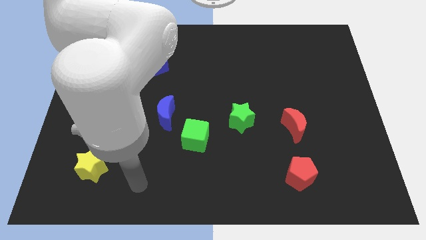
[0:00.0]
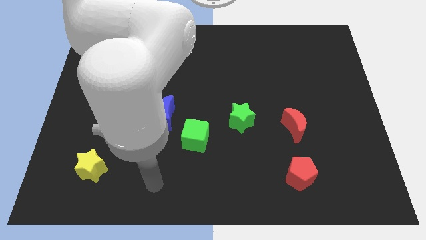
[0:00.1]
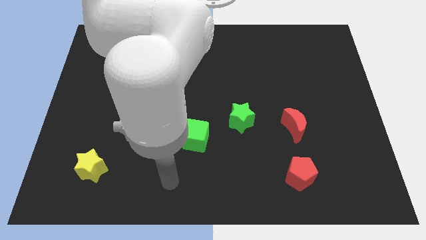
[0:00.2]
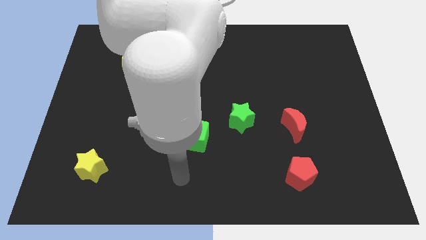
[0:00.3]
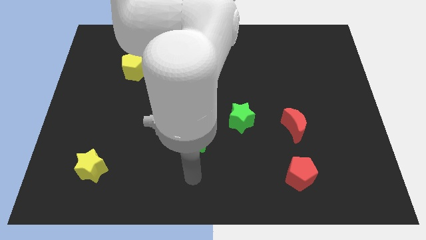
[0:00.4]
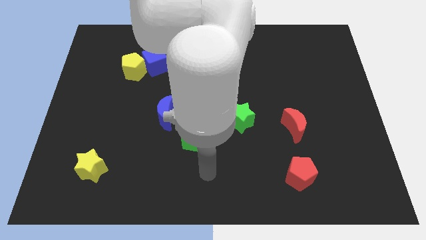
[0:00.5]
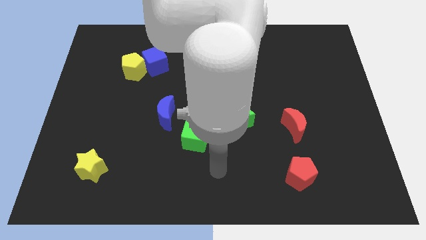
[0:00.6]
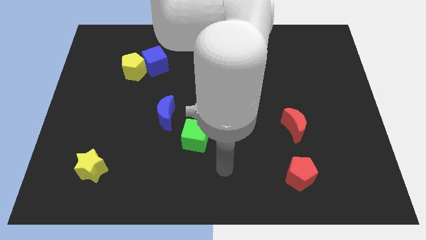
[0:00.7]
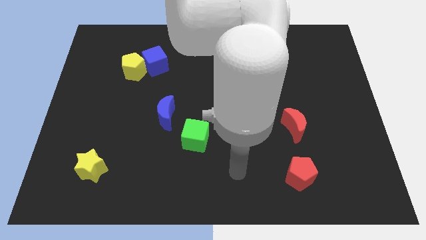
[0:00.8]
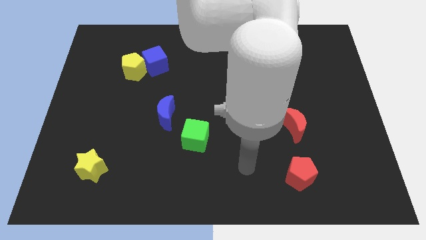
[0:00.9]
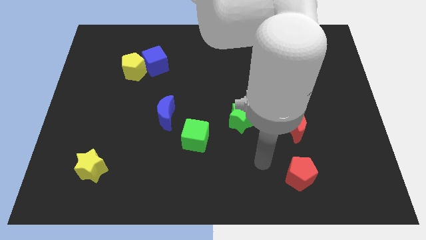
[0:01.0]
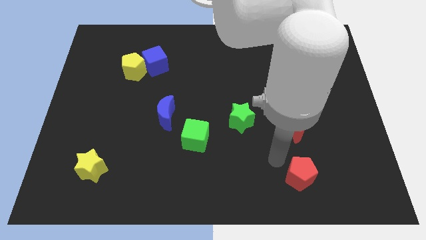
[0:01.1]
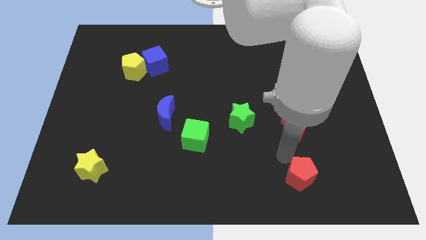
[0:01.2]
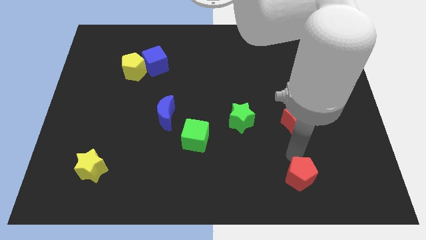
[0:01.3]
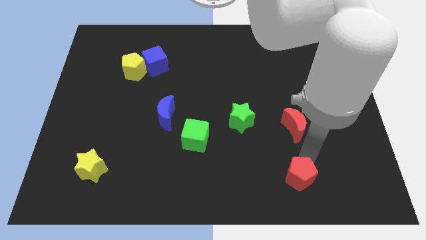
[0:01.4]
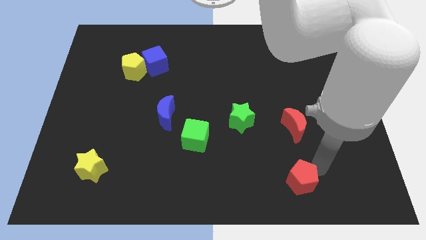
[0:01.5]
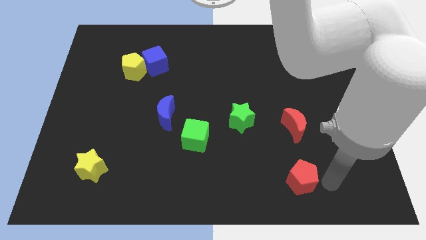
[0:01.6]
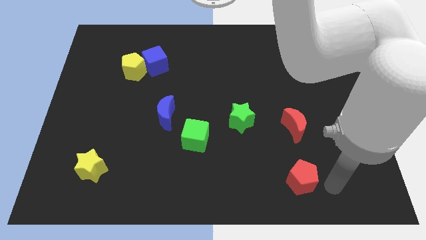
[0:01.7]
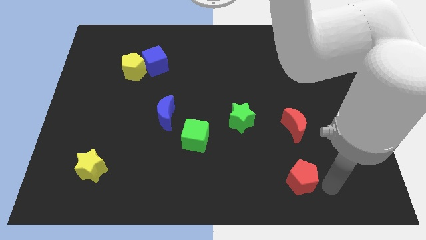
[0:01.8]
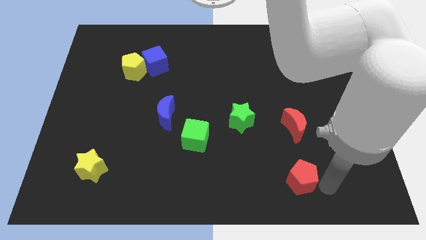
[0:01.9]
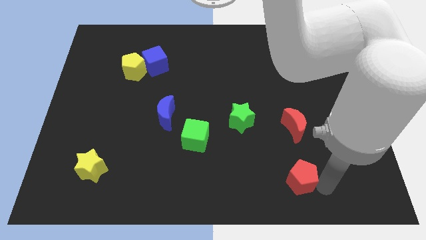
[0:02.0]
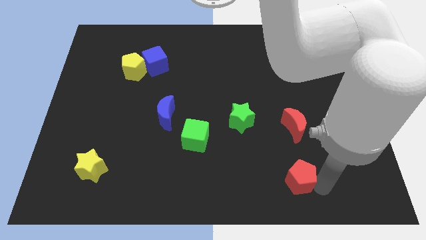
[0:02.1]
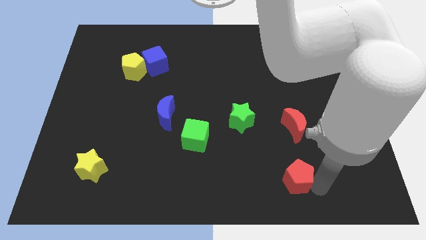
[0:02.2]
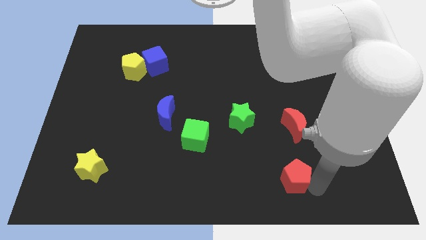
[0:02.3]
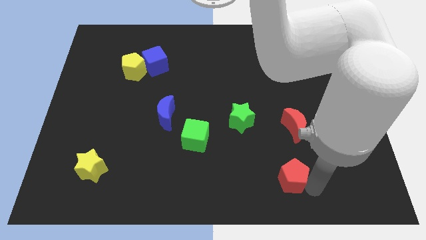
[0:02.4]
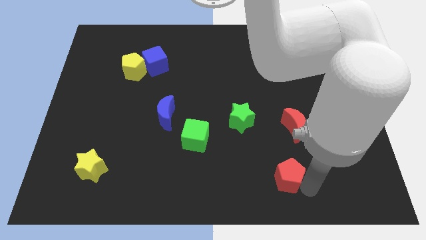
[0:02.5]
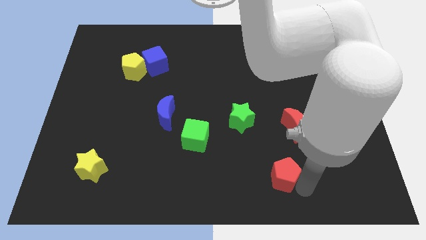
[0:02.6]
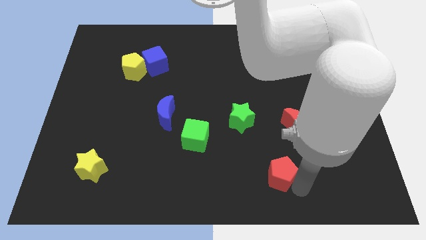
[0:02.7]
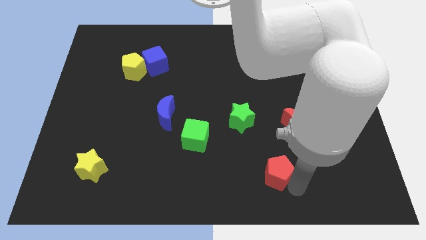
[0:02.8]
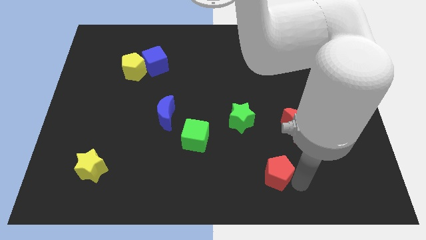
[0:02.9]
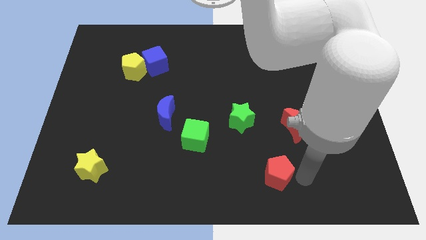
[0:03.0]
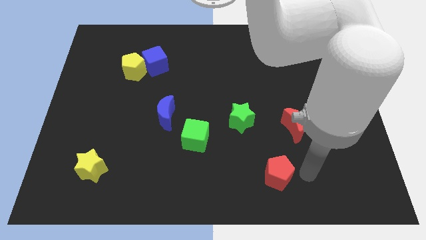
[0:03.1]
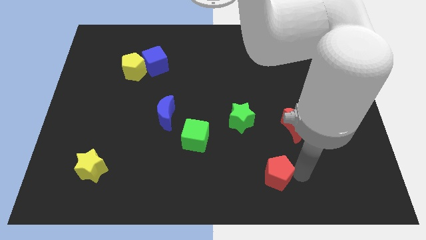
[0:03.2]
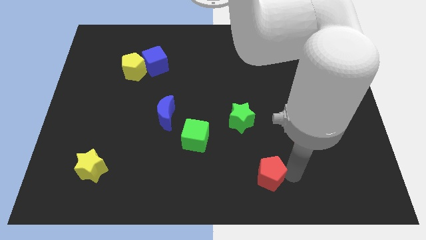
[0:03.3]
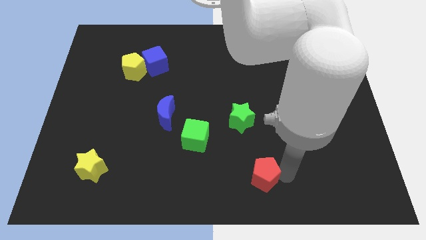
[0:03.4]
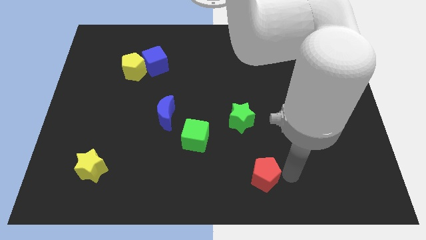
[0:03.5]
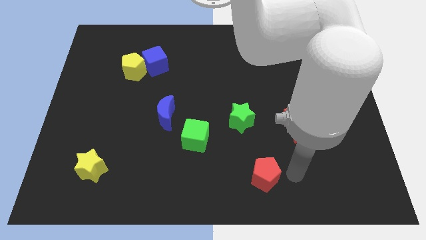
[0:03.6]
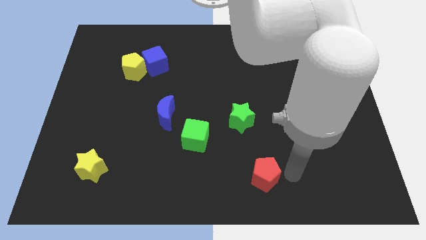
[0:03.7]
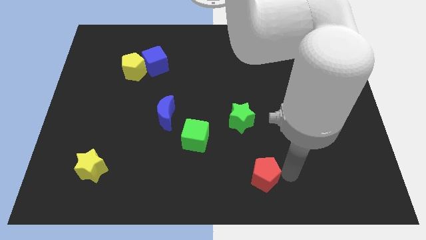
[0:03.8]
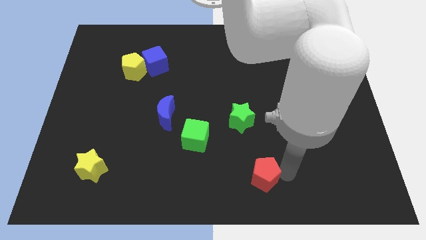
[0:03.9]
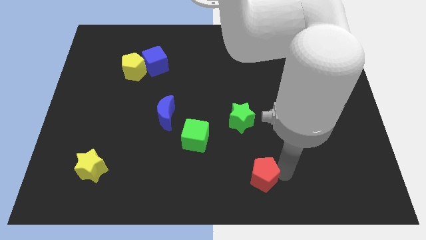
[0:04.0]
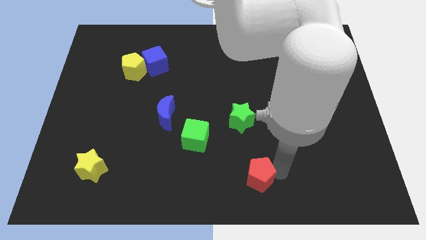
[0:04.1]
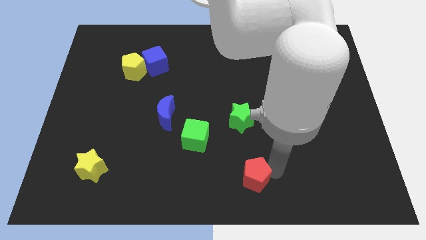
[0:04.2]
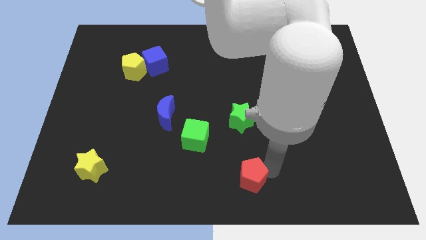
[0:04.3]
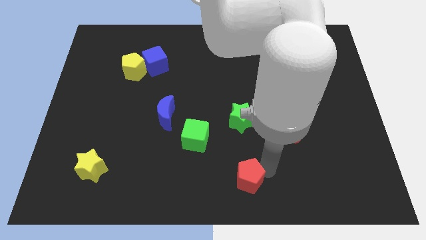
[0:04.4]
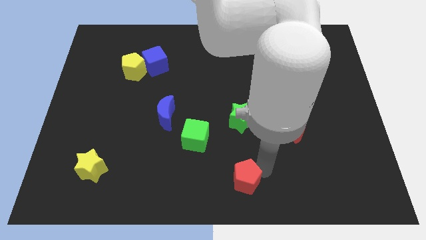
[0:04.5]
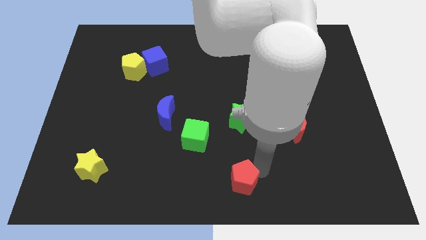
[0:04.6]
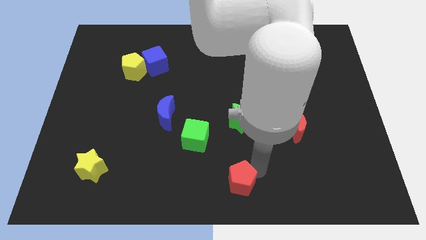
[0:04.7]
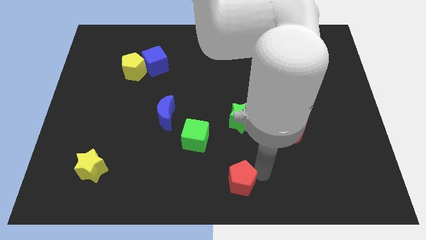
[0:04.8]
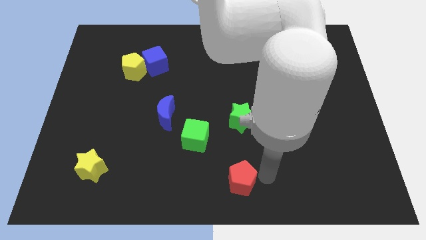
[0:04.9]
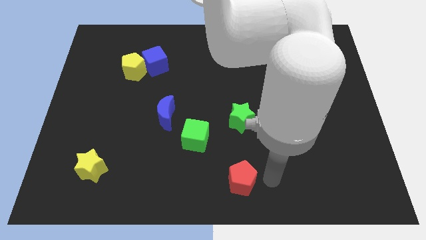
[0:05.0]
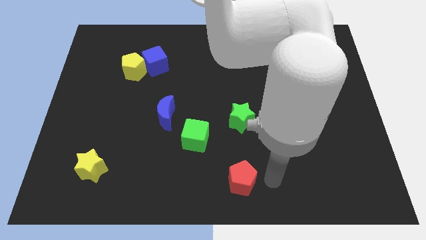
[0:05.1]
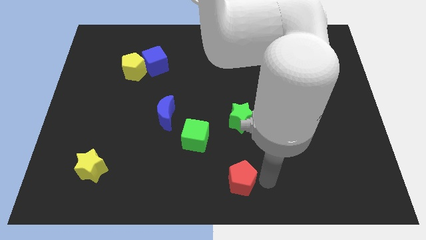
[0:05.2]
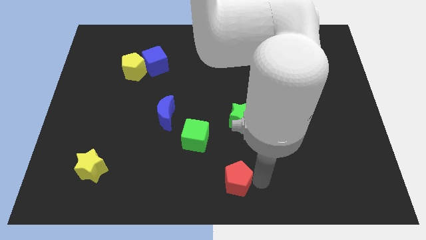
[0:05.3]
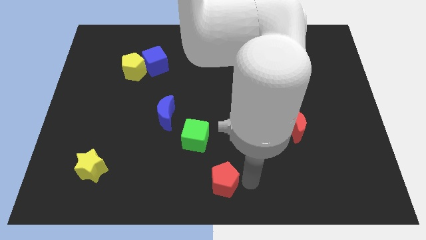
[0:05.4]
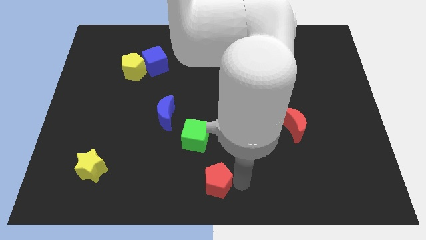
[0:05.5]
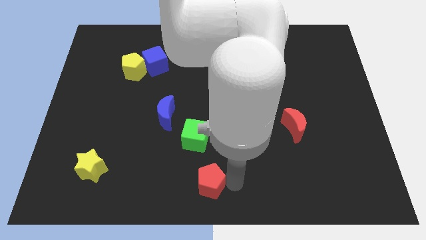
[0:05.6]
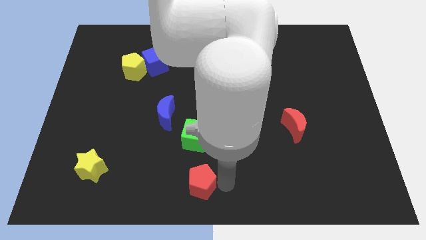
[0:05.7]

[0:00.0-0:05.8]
push the red pentagon left

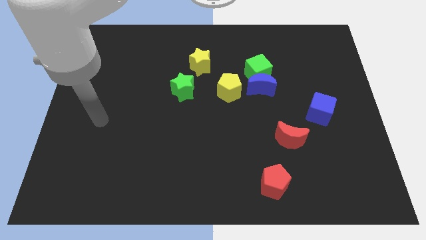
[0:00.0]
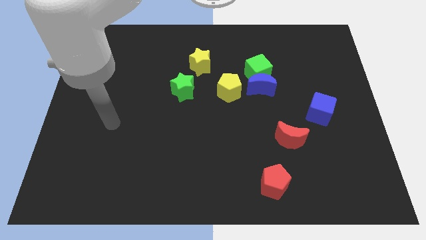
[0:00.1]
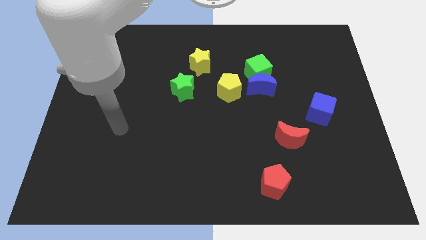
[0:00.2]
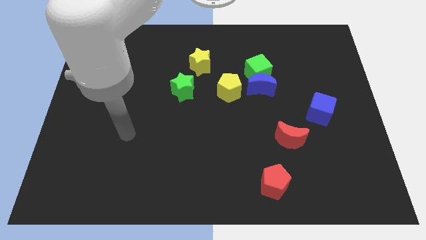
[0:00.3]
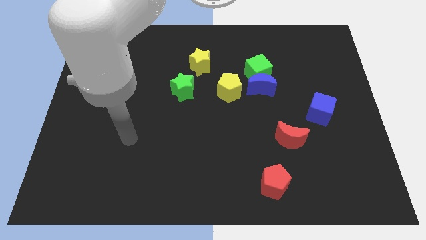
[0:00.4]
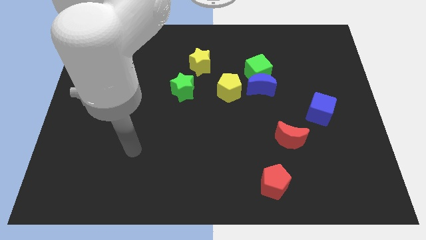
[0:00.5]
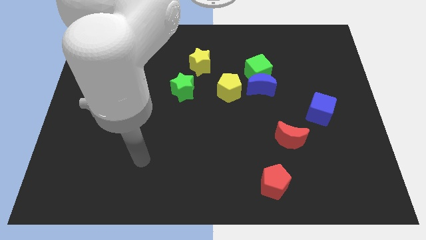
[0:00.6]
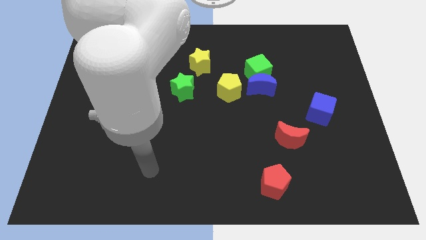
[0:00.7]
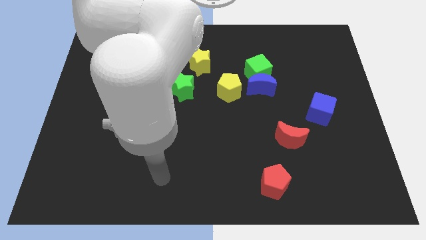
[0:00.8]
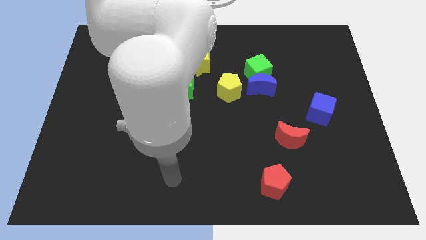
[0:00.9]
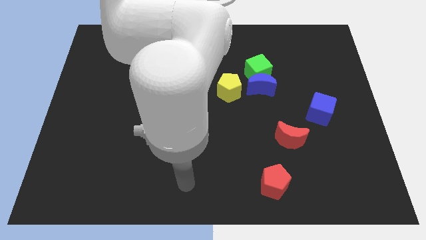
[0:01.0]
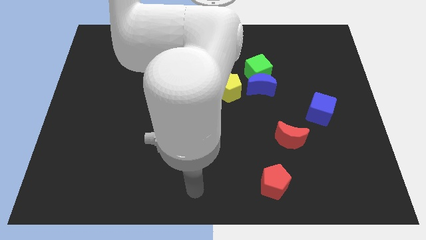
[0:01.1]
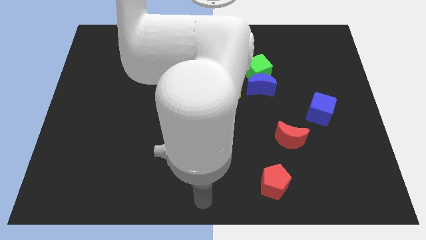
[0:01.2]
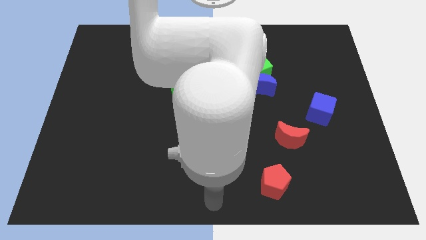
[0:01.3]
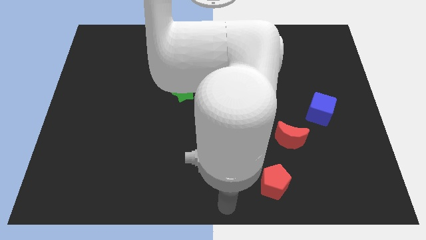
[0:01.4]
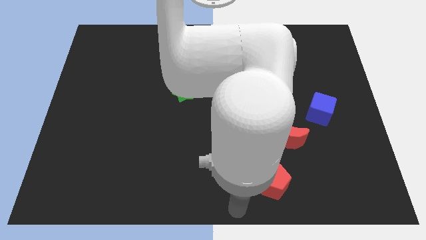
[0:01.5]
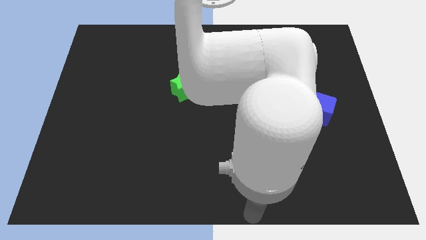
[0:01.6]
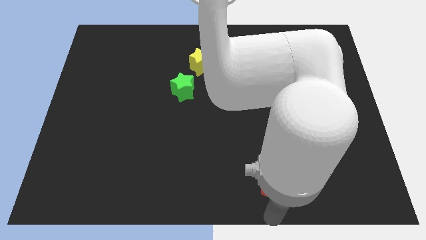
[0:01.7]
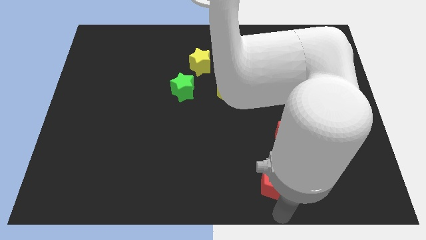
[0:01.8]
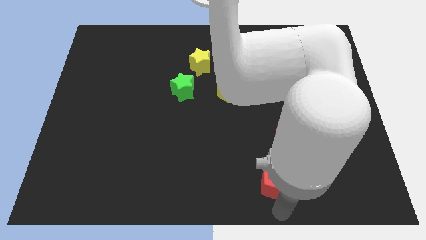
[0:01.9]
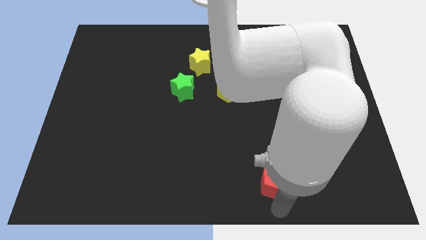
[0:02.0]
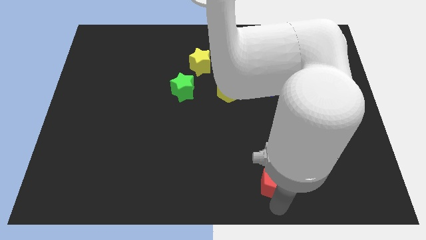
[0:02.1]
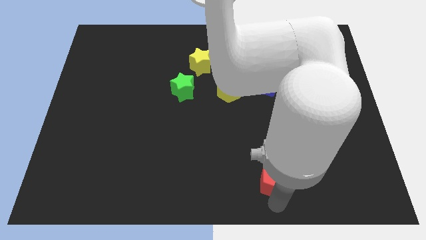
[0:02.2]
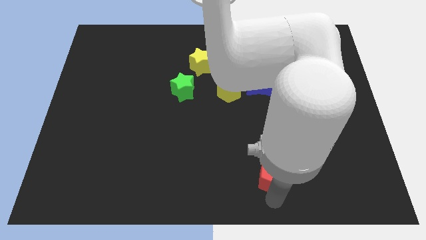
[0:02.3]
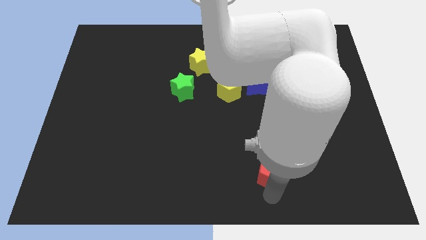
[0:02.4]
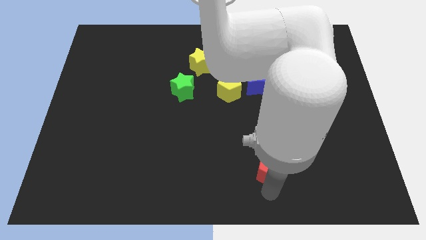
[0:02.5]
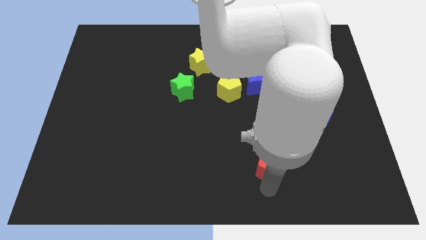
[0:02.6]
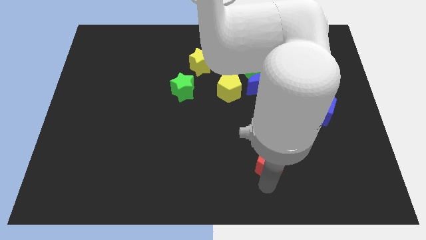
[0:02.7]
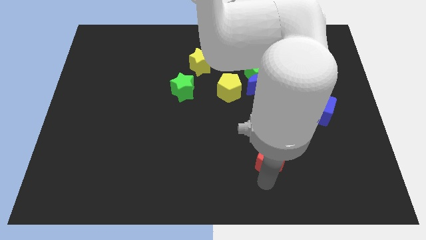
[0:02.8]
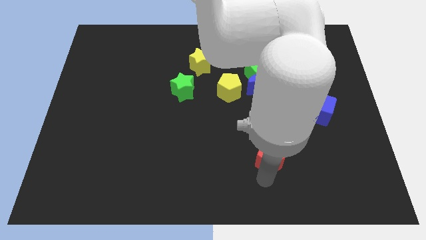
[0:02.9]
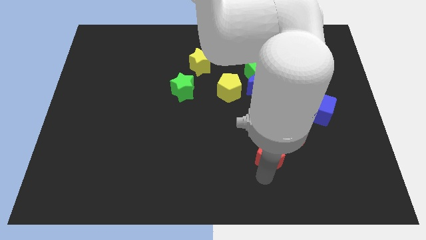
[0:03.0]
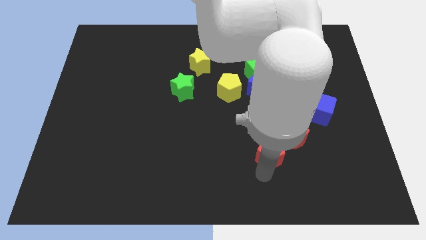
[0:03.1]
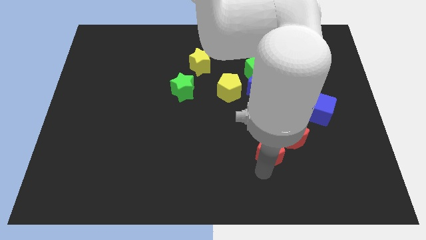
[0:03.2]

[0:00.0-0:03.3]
slightly push the red pentagon up
